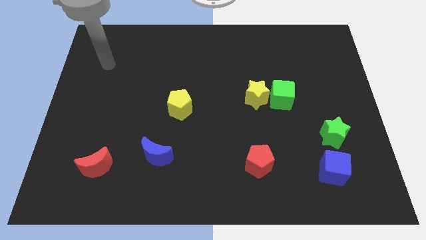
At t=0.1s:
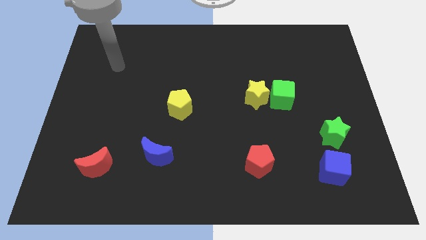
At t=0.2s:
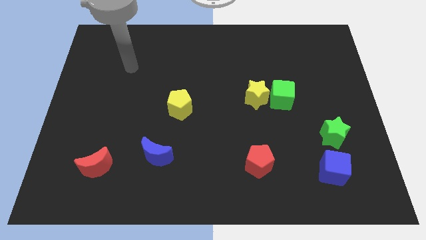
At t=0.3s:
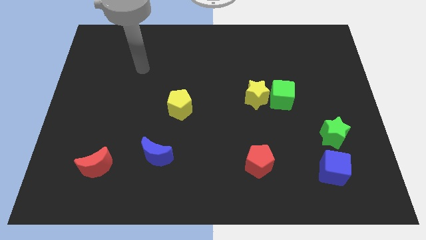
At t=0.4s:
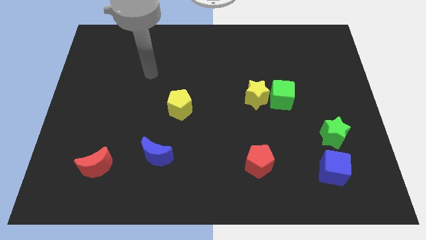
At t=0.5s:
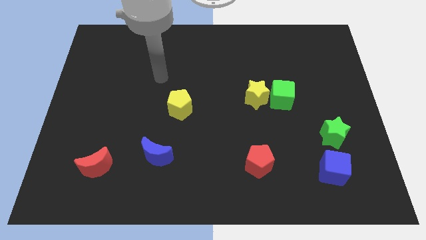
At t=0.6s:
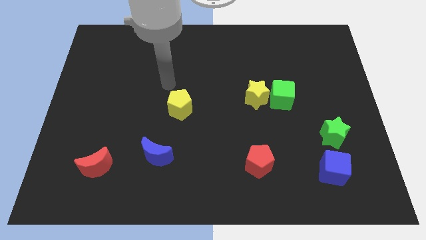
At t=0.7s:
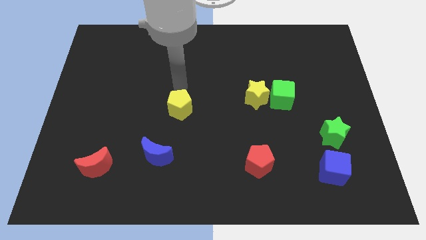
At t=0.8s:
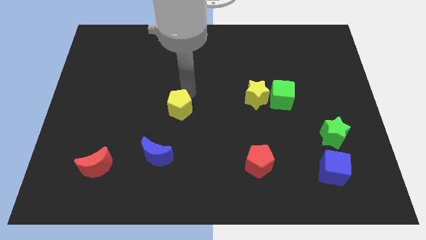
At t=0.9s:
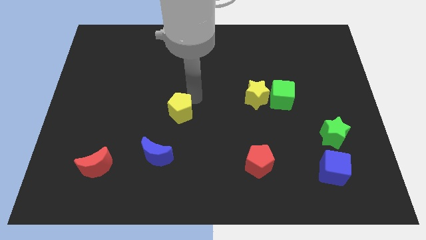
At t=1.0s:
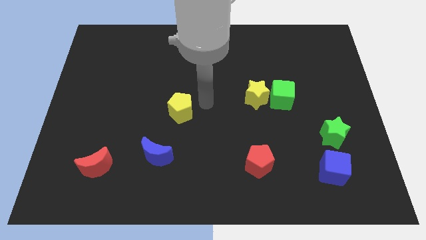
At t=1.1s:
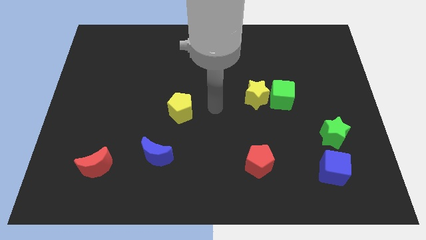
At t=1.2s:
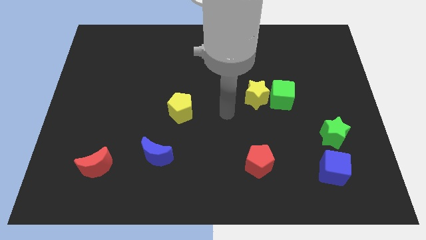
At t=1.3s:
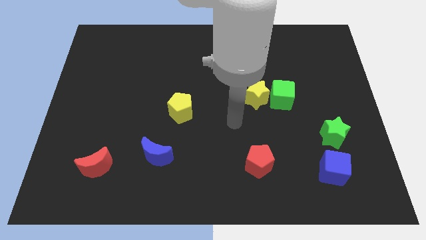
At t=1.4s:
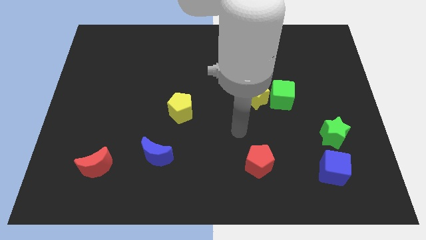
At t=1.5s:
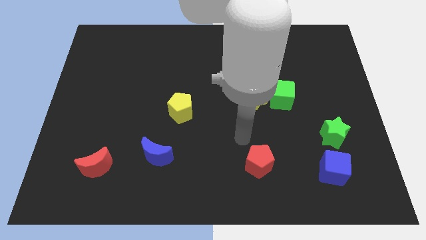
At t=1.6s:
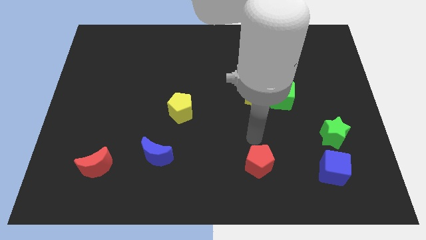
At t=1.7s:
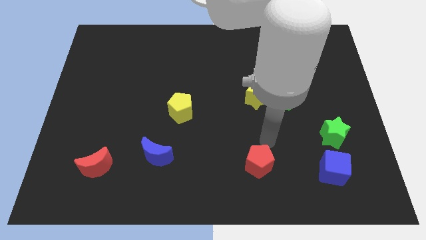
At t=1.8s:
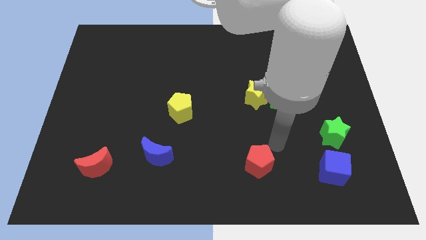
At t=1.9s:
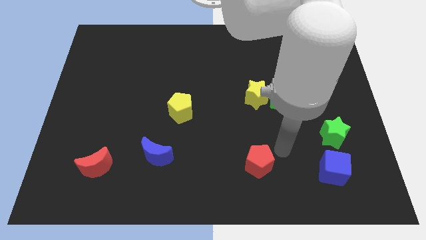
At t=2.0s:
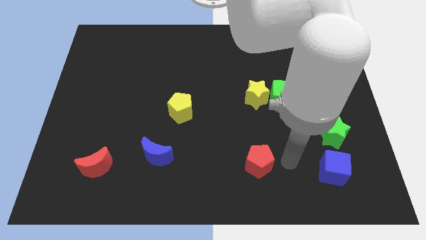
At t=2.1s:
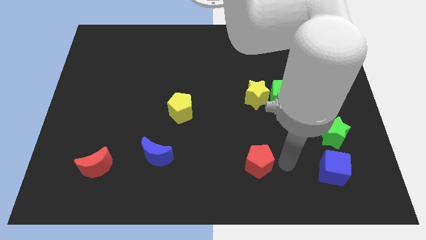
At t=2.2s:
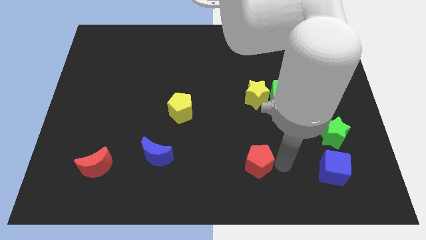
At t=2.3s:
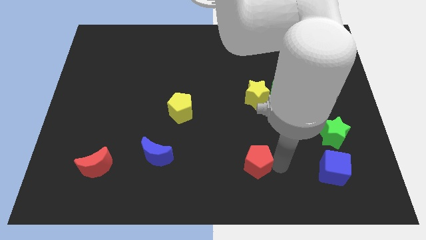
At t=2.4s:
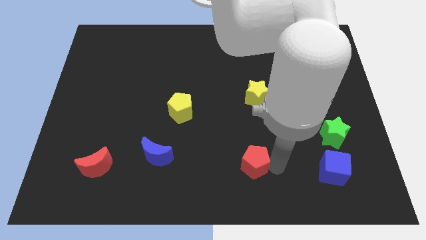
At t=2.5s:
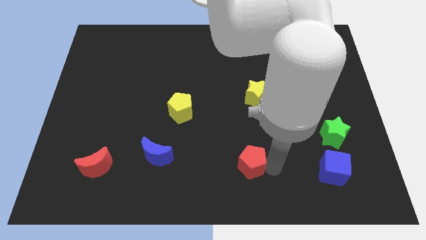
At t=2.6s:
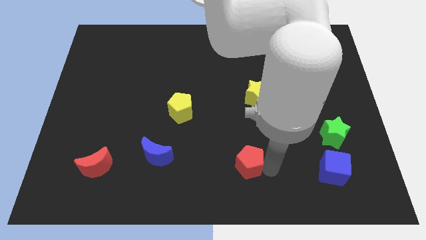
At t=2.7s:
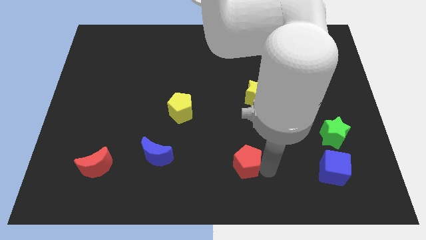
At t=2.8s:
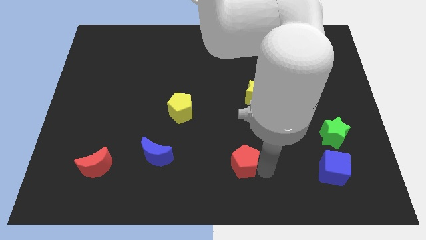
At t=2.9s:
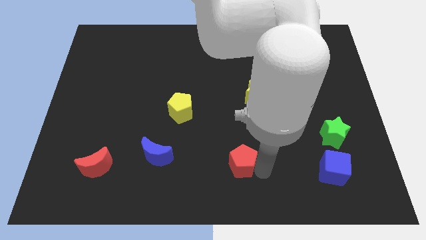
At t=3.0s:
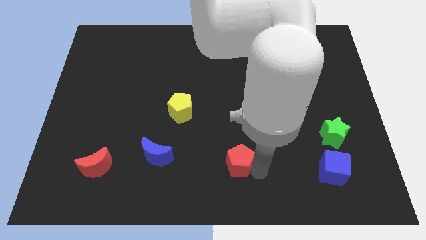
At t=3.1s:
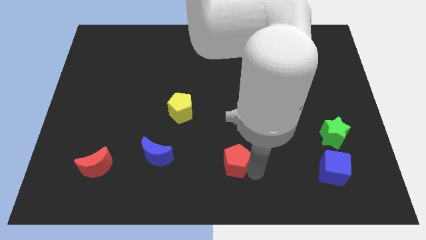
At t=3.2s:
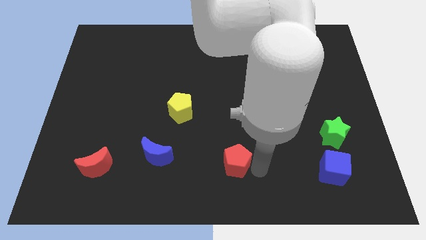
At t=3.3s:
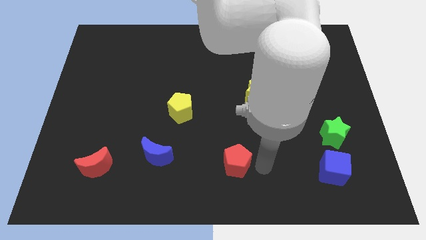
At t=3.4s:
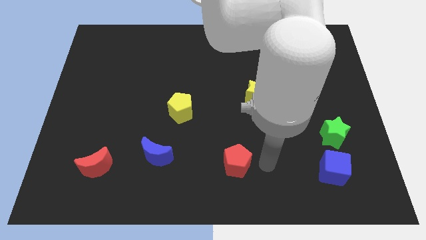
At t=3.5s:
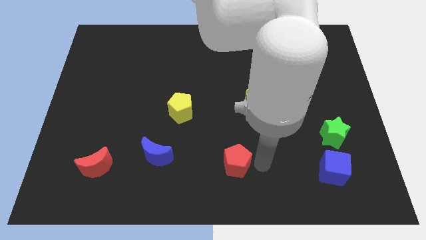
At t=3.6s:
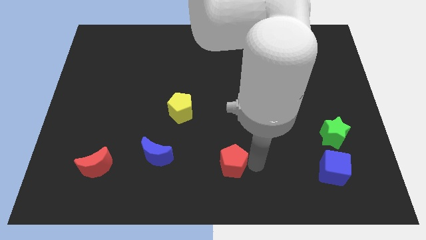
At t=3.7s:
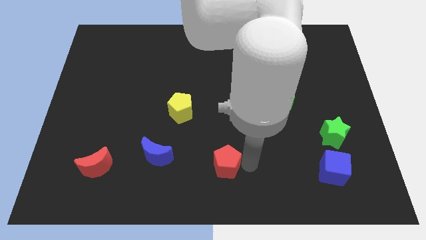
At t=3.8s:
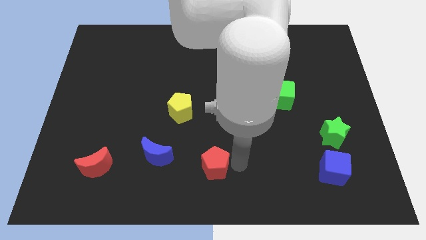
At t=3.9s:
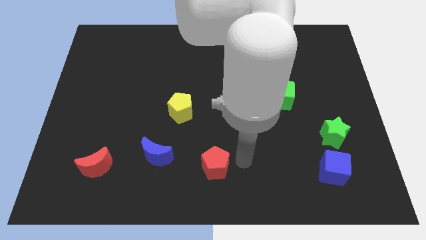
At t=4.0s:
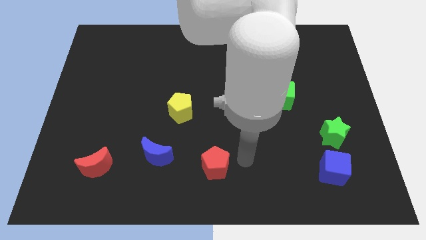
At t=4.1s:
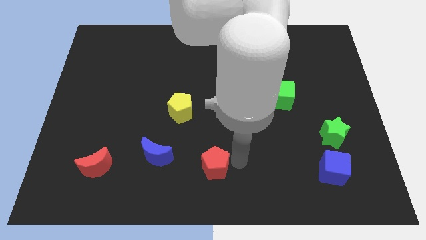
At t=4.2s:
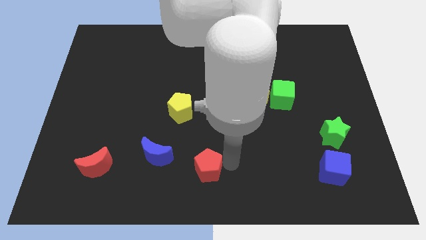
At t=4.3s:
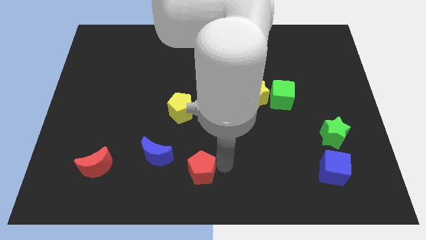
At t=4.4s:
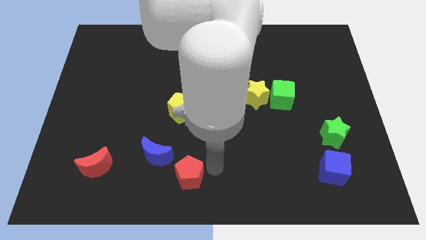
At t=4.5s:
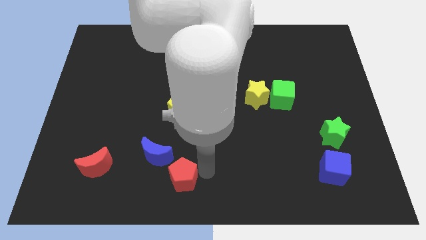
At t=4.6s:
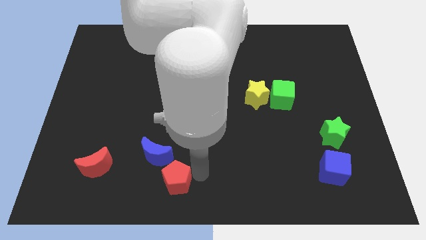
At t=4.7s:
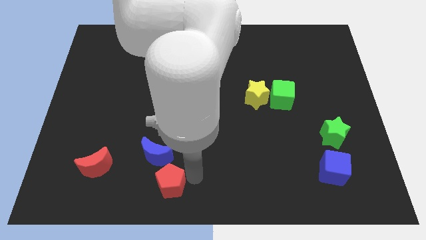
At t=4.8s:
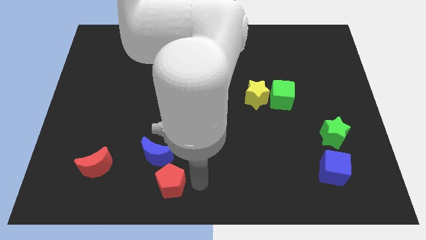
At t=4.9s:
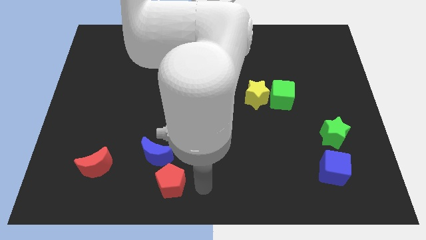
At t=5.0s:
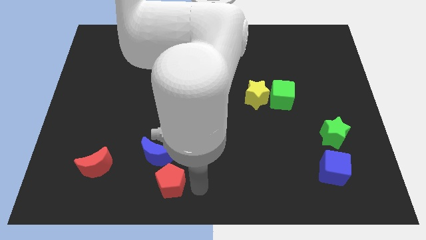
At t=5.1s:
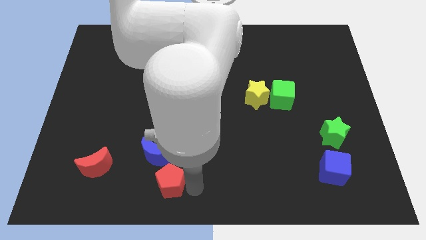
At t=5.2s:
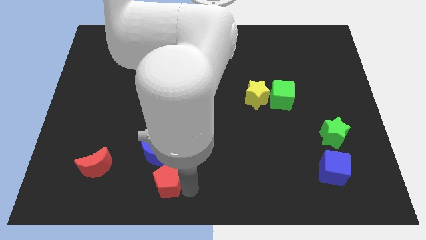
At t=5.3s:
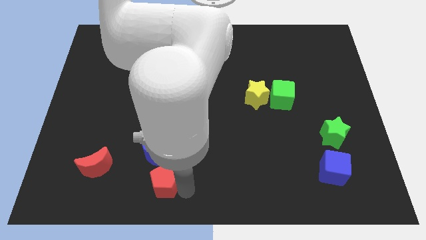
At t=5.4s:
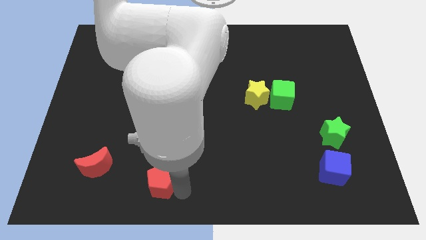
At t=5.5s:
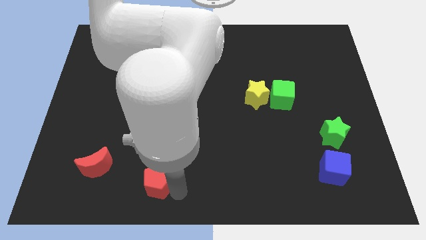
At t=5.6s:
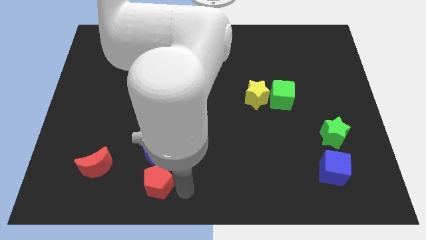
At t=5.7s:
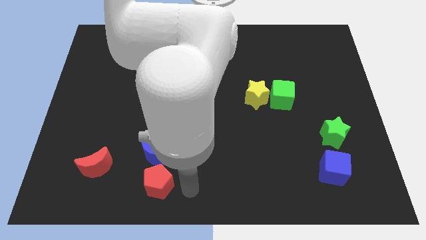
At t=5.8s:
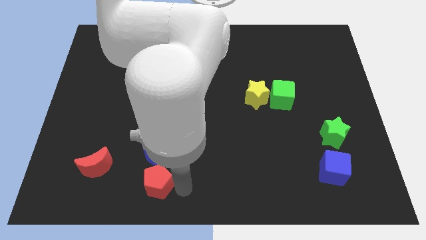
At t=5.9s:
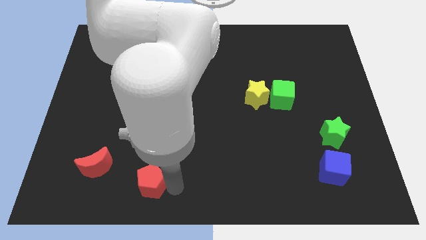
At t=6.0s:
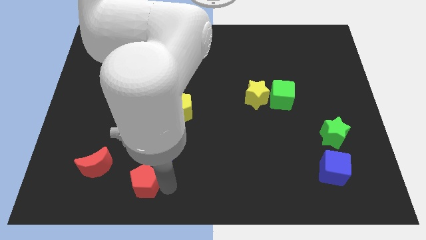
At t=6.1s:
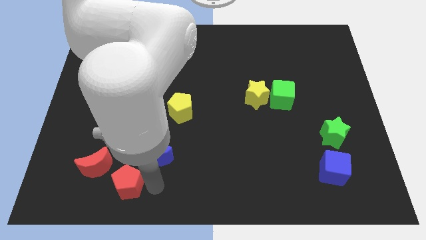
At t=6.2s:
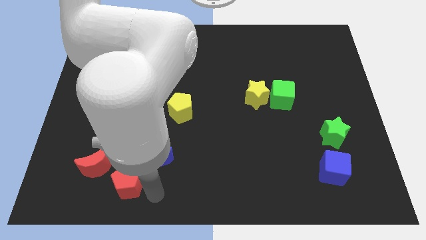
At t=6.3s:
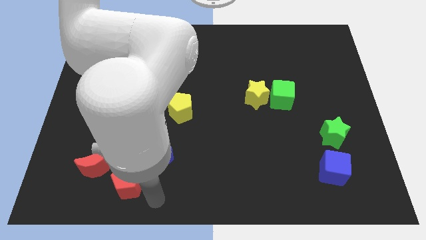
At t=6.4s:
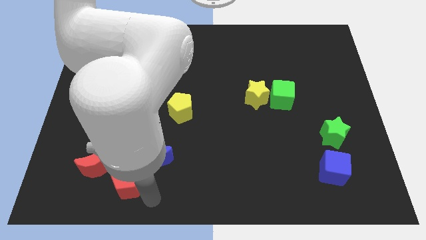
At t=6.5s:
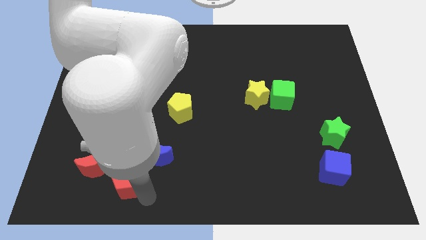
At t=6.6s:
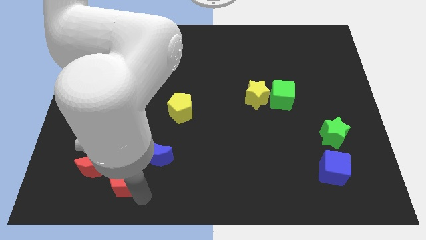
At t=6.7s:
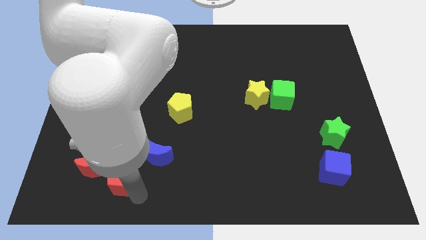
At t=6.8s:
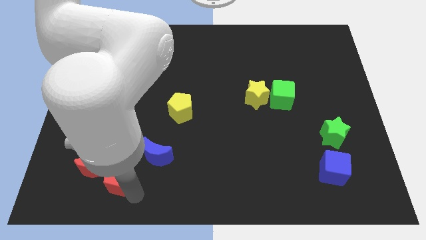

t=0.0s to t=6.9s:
slide the red pentagon towards the red moon

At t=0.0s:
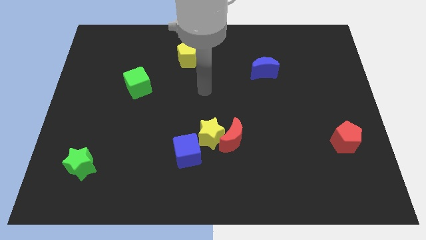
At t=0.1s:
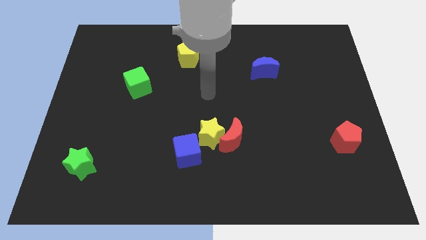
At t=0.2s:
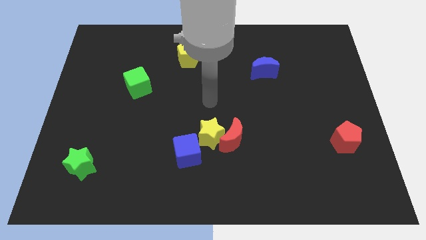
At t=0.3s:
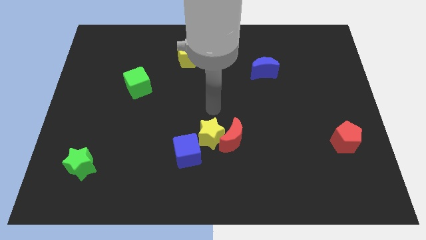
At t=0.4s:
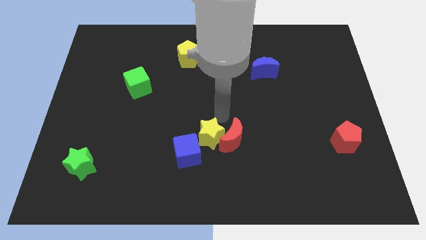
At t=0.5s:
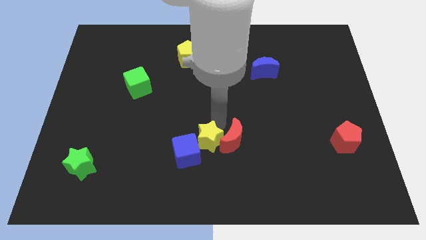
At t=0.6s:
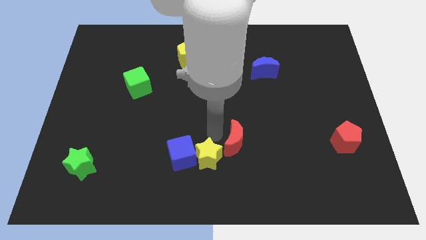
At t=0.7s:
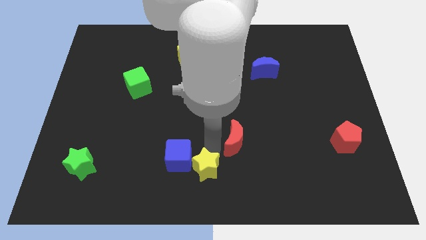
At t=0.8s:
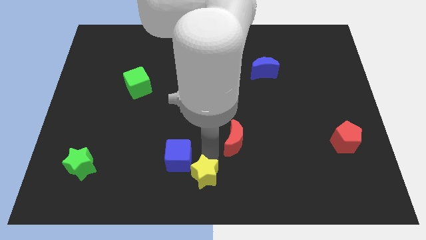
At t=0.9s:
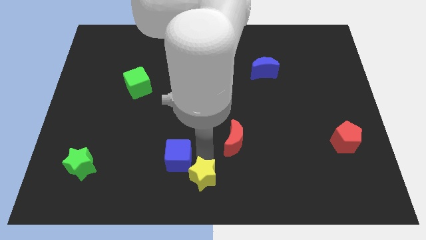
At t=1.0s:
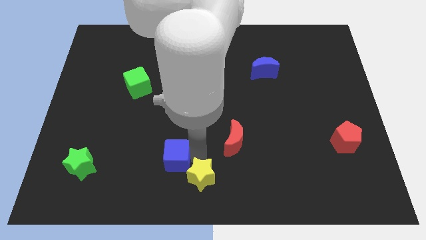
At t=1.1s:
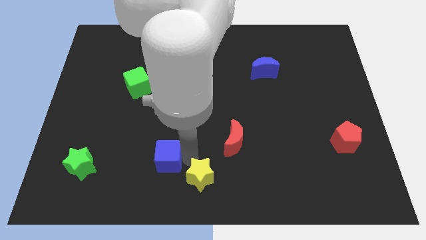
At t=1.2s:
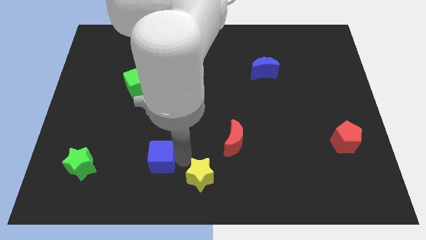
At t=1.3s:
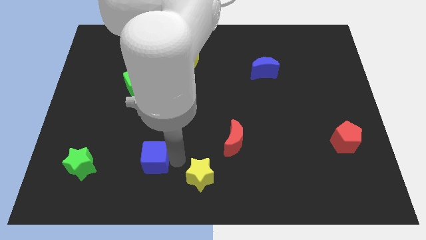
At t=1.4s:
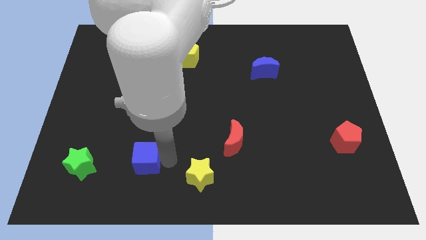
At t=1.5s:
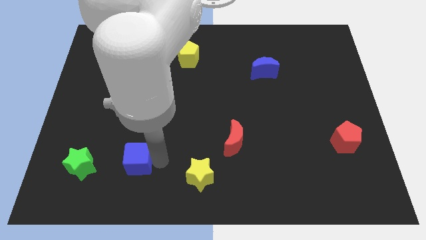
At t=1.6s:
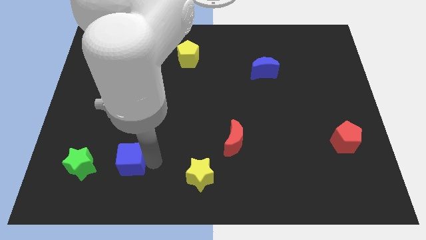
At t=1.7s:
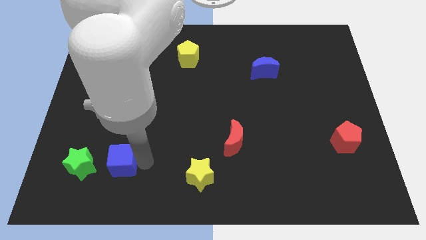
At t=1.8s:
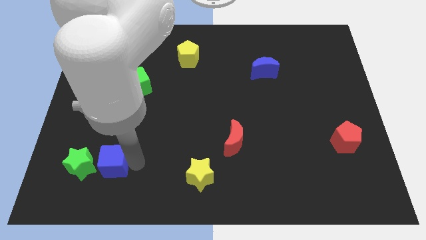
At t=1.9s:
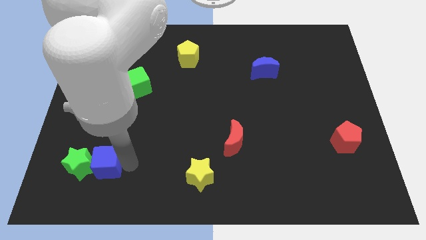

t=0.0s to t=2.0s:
move the blue cube close to the green star
